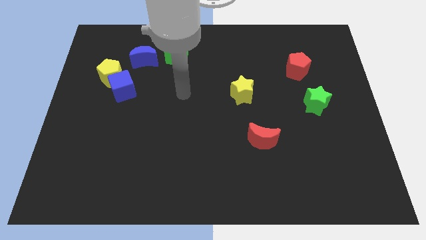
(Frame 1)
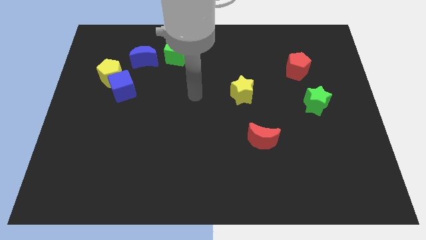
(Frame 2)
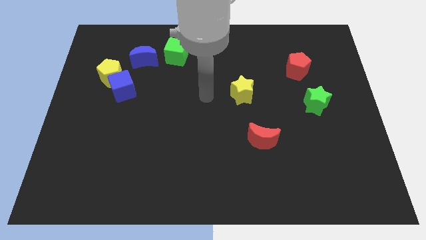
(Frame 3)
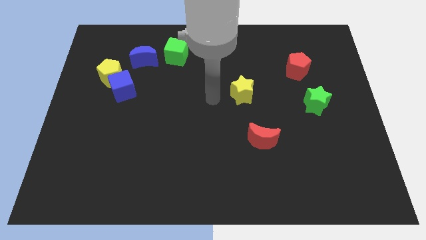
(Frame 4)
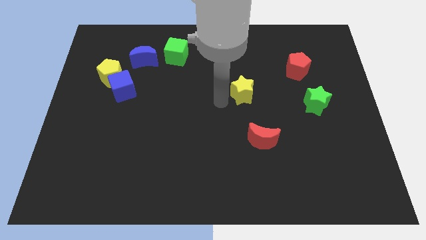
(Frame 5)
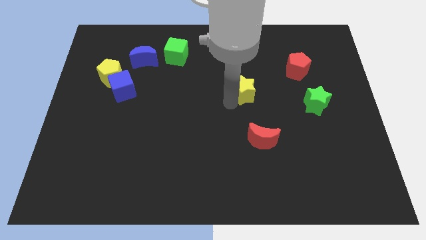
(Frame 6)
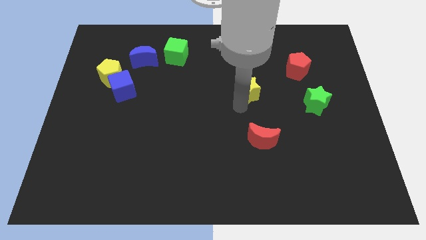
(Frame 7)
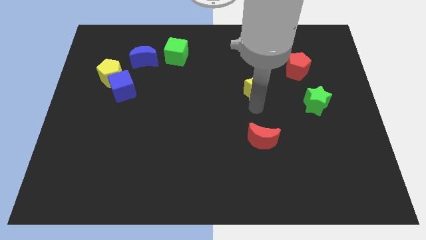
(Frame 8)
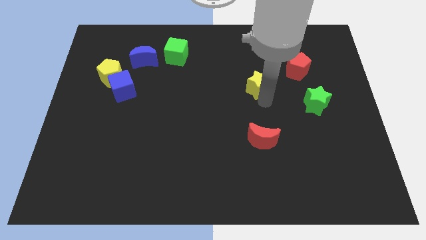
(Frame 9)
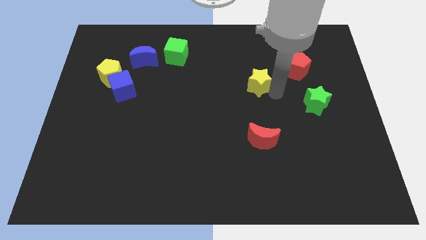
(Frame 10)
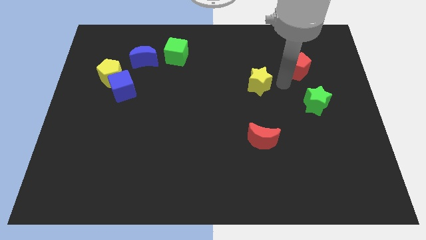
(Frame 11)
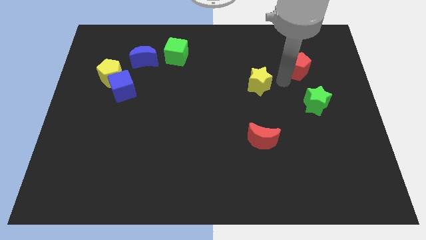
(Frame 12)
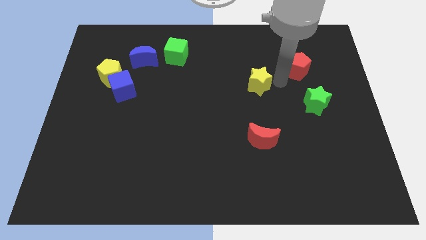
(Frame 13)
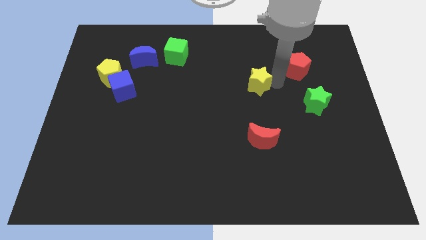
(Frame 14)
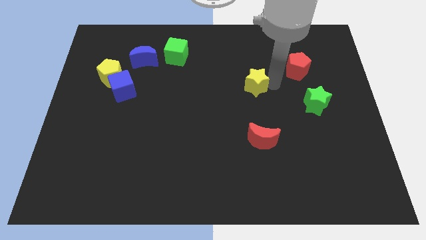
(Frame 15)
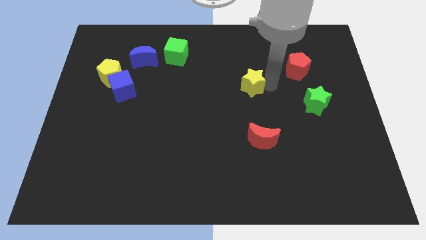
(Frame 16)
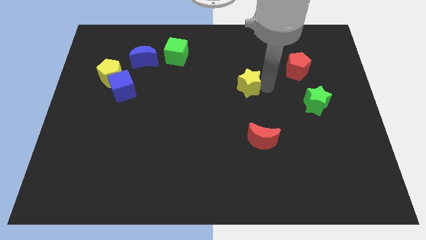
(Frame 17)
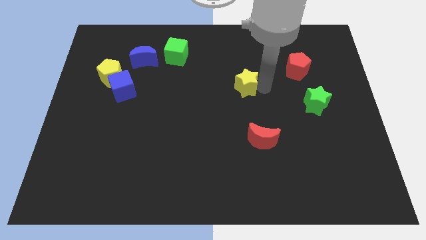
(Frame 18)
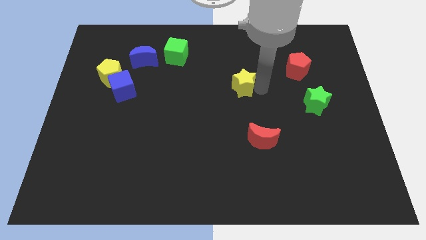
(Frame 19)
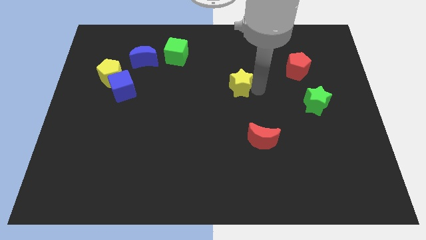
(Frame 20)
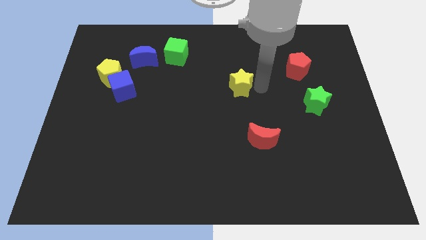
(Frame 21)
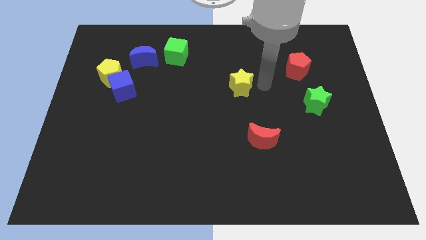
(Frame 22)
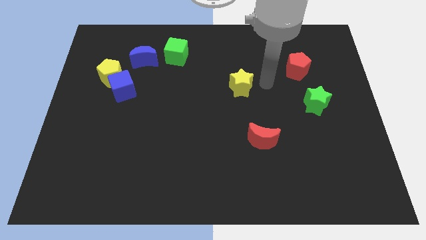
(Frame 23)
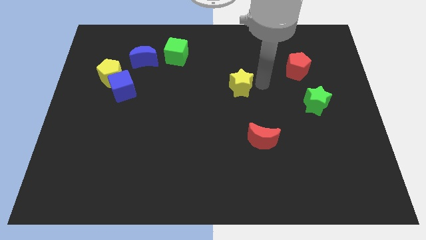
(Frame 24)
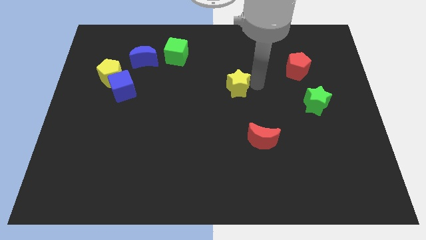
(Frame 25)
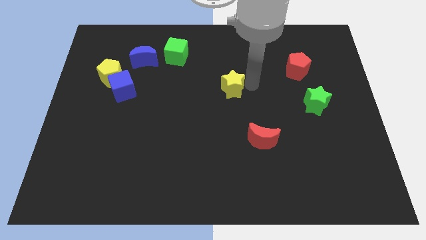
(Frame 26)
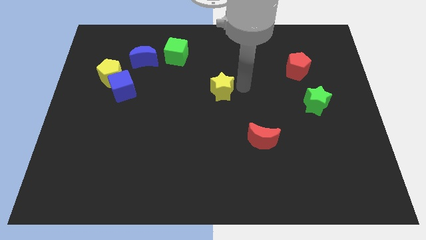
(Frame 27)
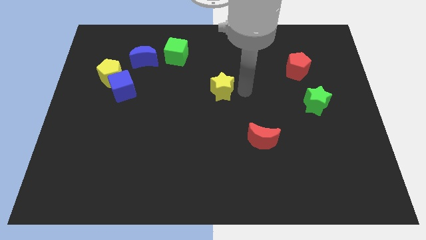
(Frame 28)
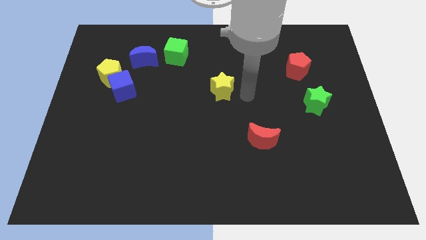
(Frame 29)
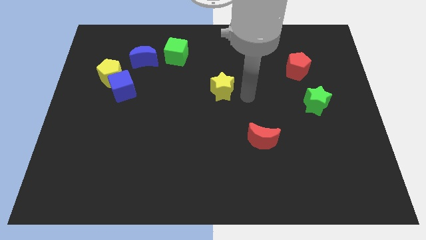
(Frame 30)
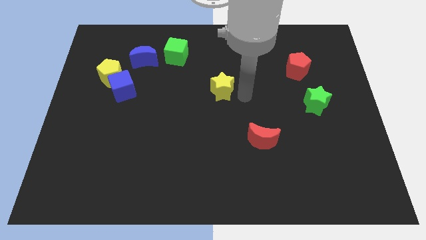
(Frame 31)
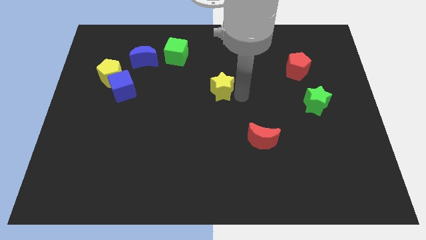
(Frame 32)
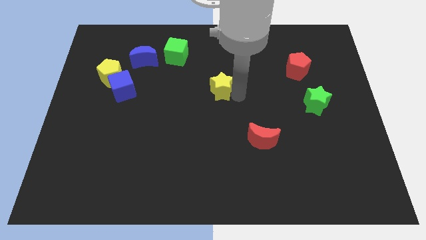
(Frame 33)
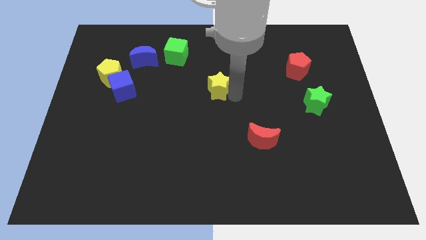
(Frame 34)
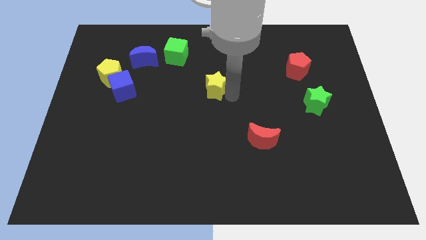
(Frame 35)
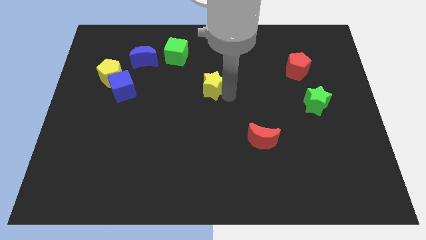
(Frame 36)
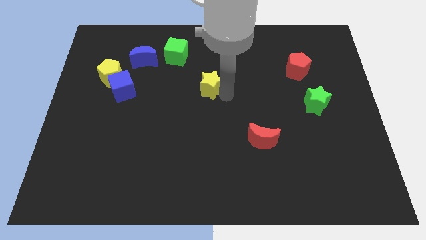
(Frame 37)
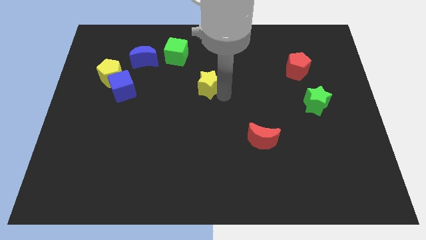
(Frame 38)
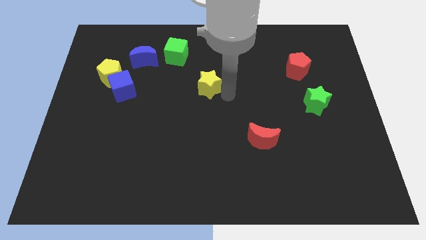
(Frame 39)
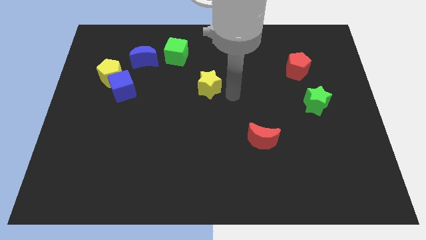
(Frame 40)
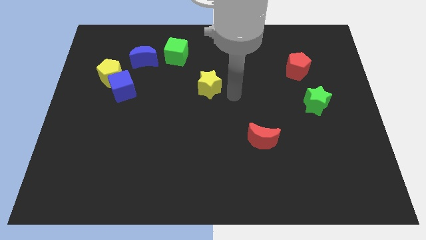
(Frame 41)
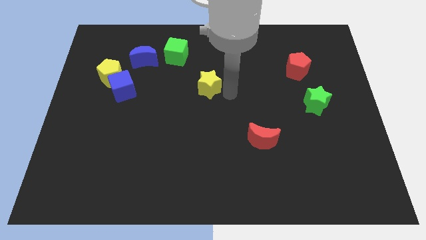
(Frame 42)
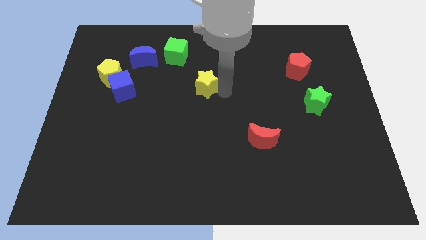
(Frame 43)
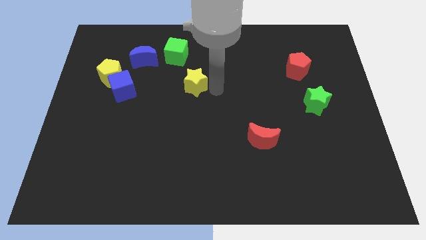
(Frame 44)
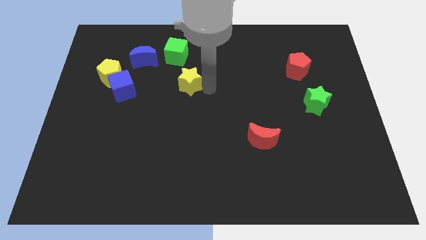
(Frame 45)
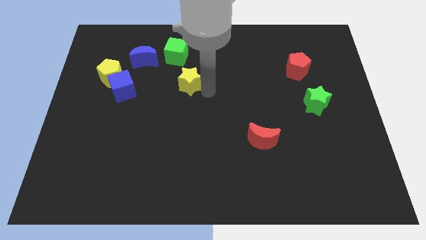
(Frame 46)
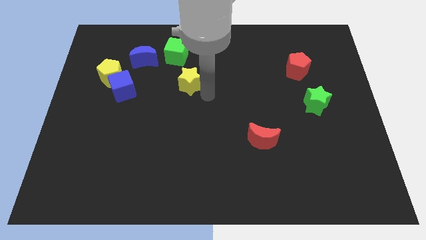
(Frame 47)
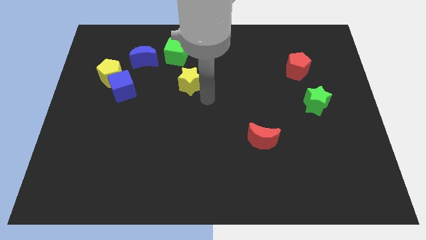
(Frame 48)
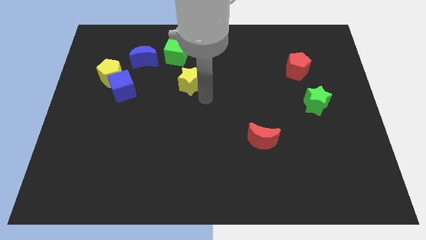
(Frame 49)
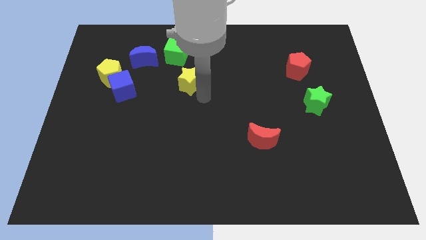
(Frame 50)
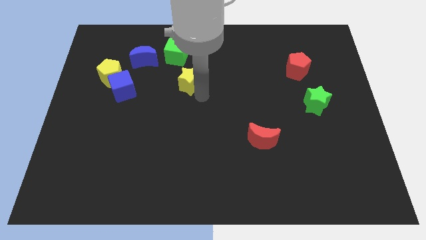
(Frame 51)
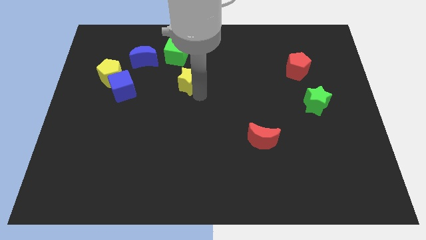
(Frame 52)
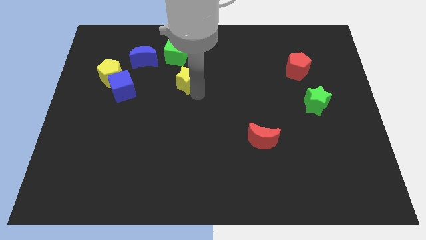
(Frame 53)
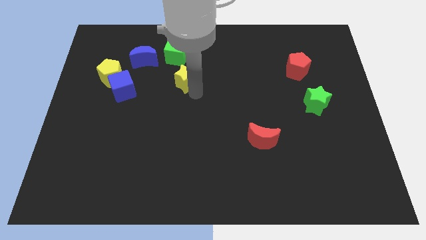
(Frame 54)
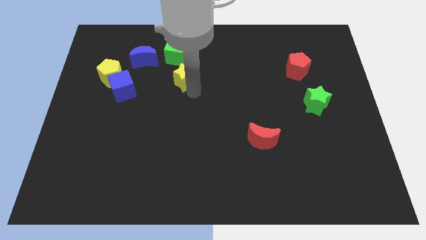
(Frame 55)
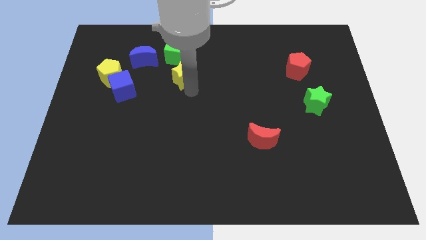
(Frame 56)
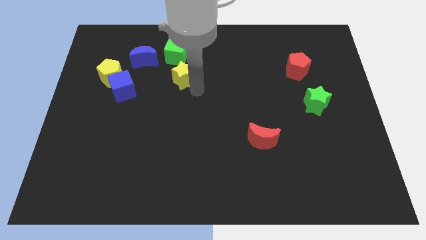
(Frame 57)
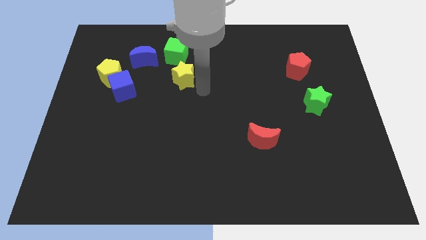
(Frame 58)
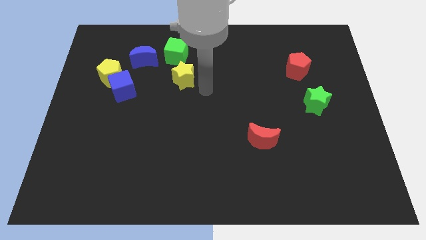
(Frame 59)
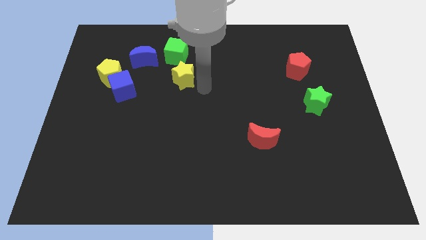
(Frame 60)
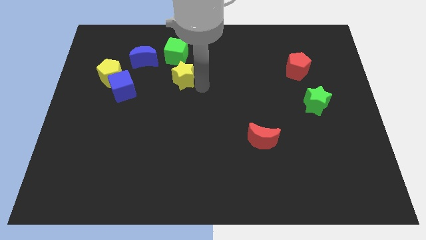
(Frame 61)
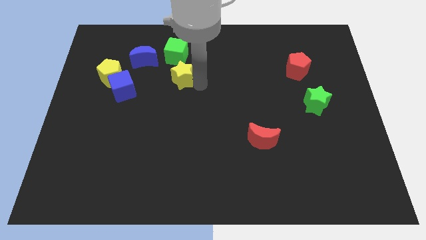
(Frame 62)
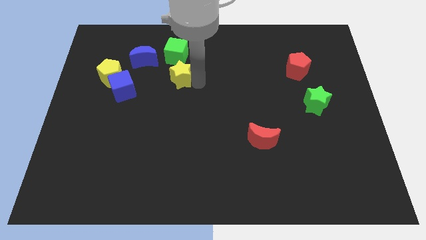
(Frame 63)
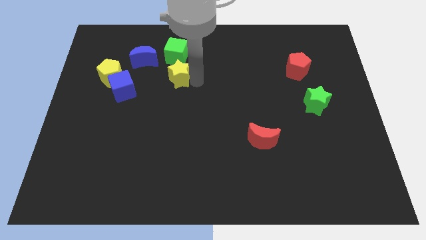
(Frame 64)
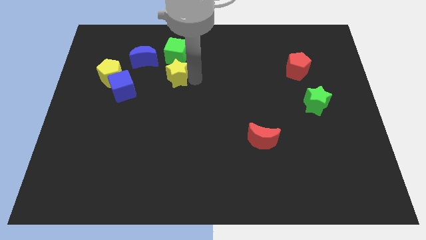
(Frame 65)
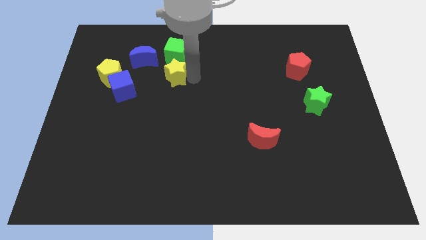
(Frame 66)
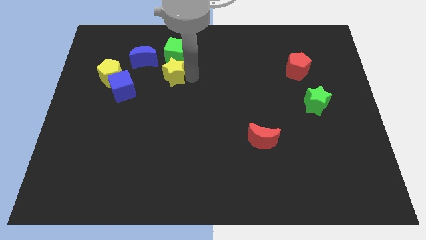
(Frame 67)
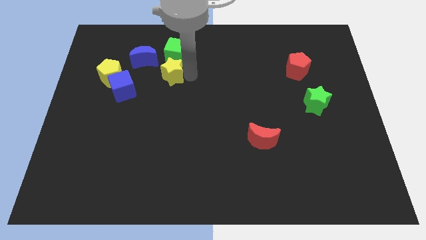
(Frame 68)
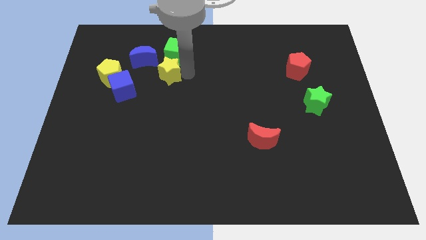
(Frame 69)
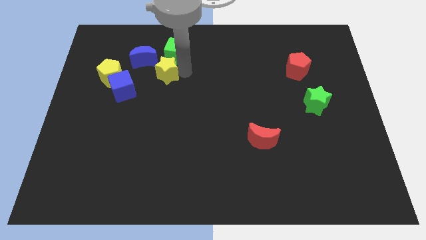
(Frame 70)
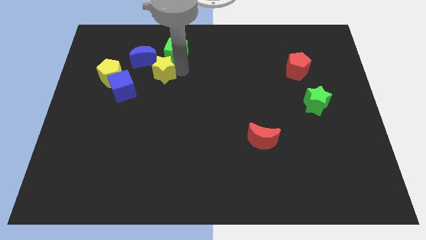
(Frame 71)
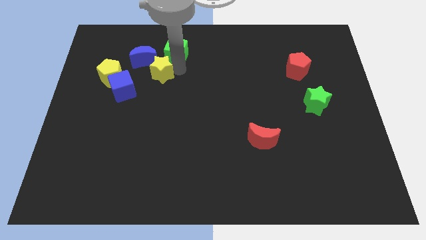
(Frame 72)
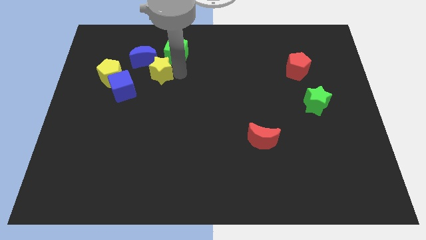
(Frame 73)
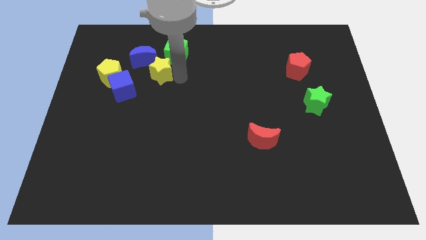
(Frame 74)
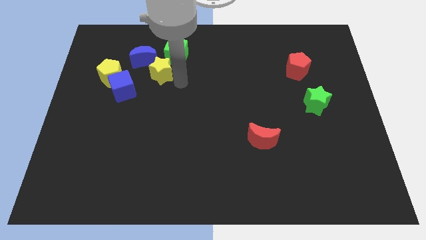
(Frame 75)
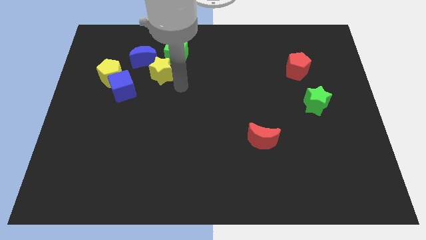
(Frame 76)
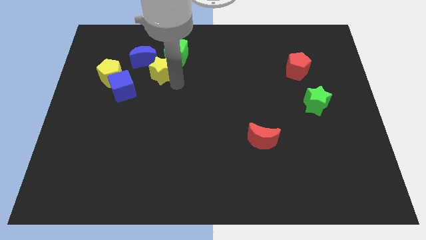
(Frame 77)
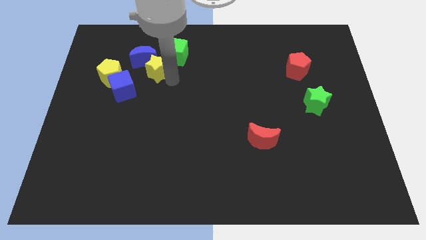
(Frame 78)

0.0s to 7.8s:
slide the yellow star next to the blue moon

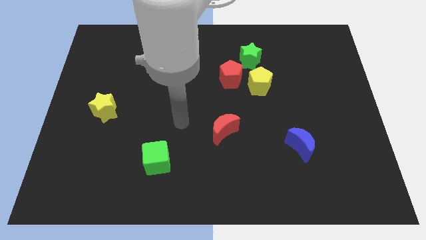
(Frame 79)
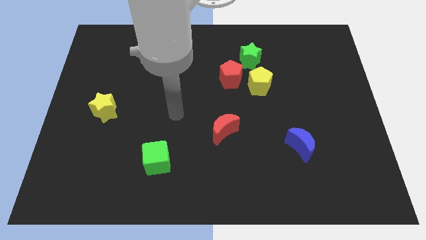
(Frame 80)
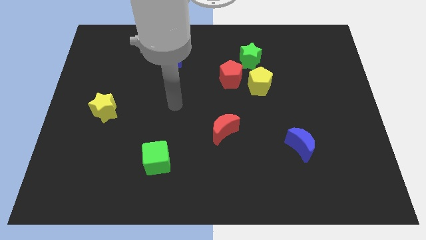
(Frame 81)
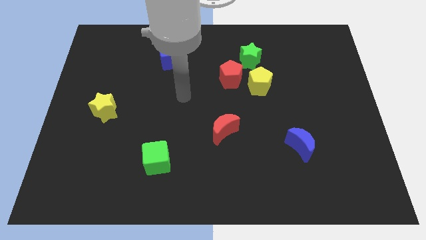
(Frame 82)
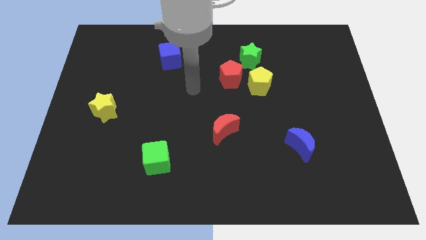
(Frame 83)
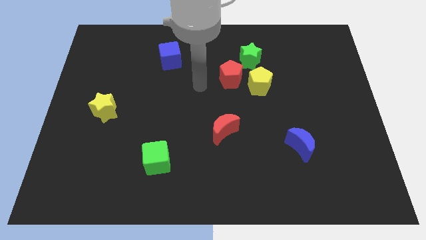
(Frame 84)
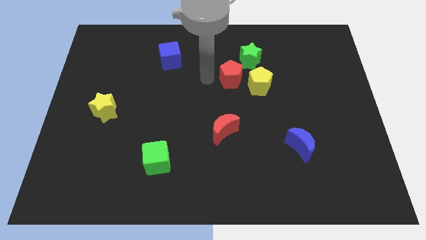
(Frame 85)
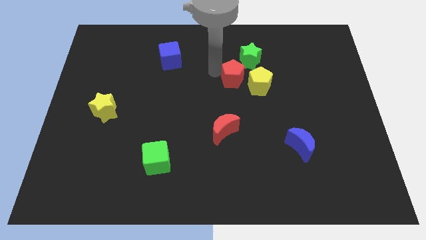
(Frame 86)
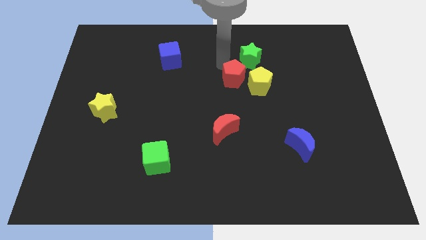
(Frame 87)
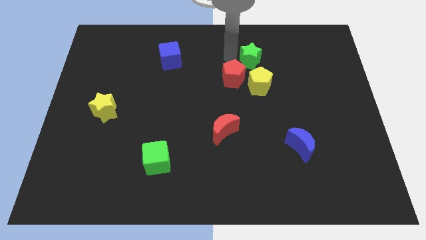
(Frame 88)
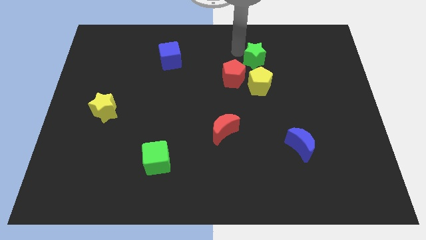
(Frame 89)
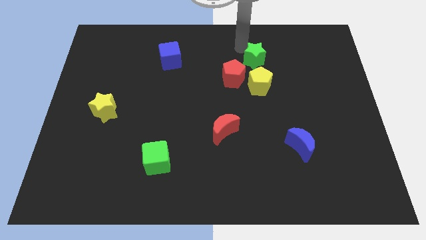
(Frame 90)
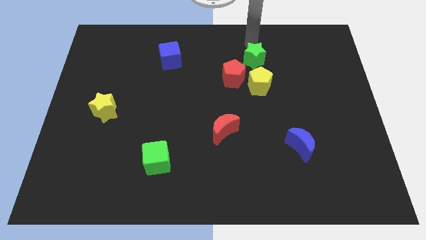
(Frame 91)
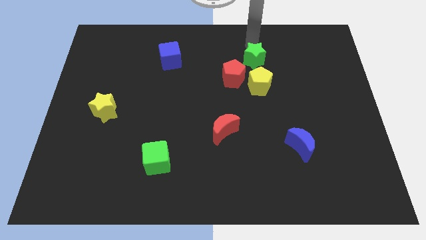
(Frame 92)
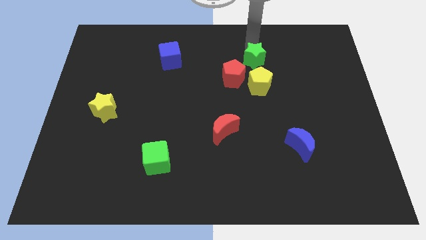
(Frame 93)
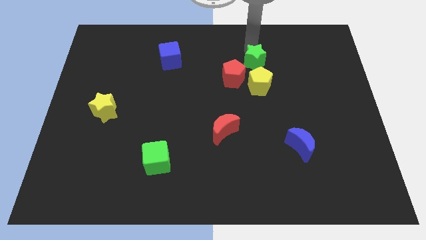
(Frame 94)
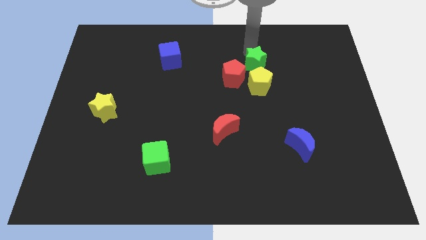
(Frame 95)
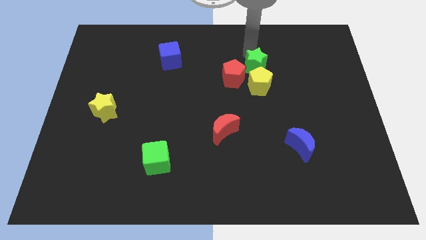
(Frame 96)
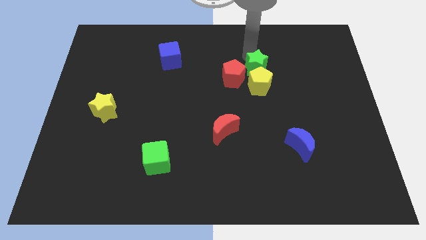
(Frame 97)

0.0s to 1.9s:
put the green star close to the yellow pentagon
